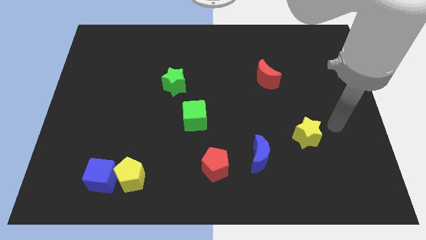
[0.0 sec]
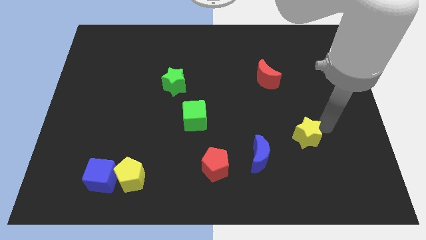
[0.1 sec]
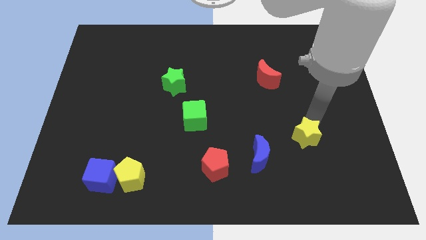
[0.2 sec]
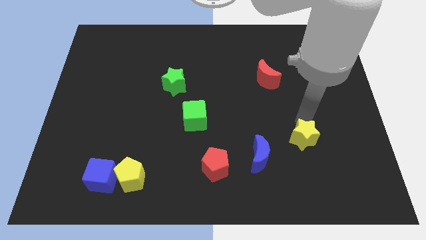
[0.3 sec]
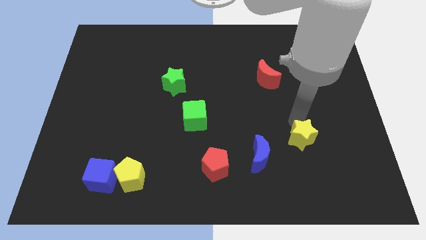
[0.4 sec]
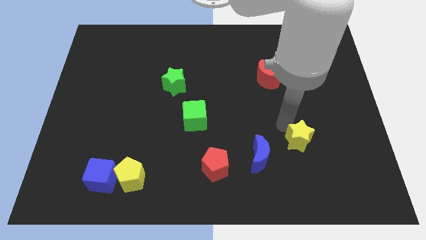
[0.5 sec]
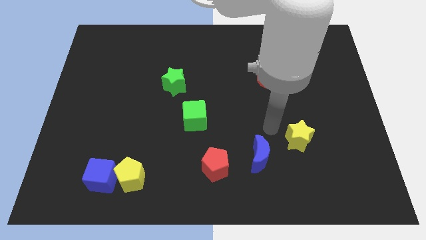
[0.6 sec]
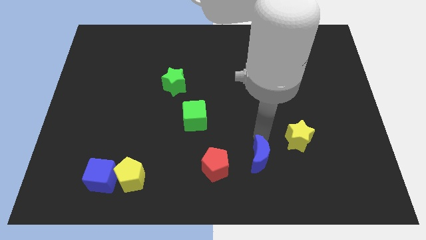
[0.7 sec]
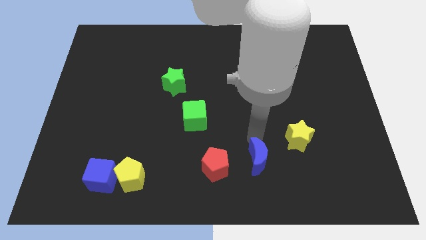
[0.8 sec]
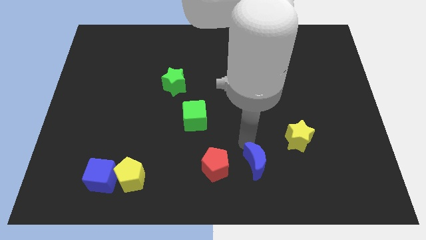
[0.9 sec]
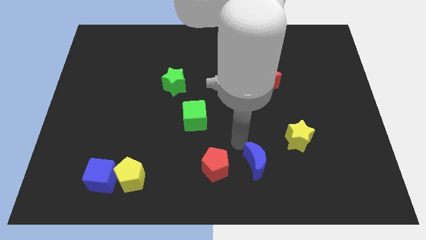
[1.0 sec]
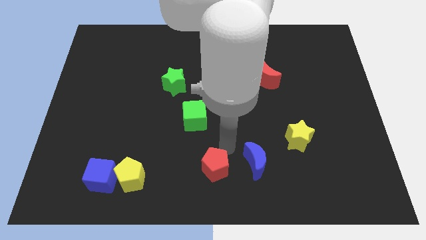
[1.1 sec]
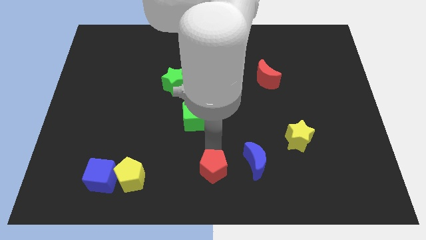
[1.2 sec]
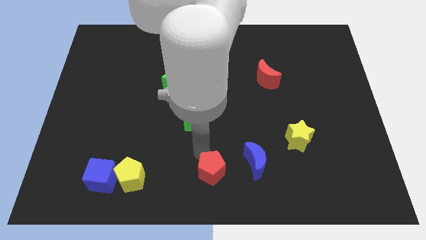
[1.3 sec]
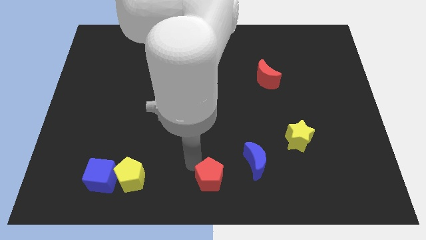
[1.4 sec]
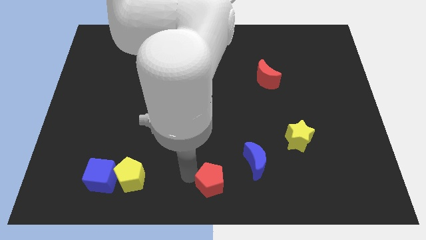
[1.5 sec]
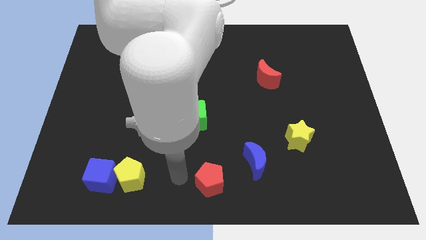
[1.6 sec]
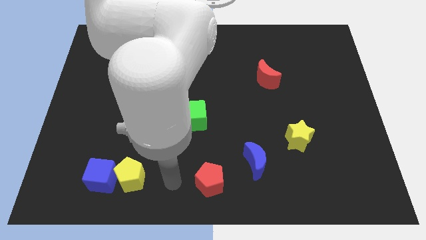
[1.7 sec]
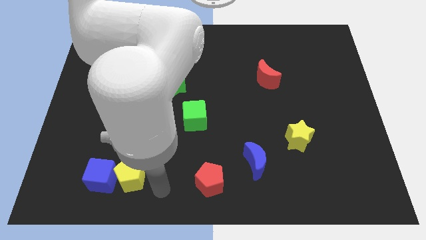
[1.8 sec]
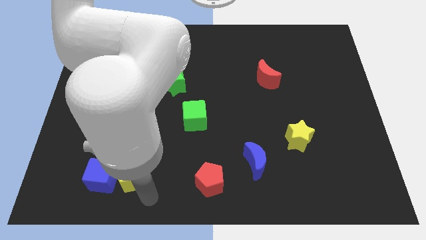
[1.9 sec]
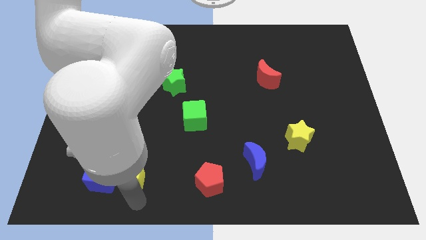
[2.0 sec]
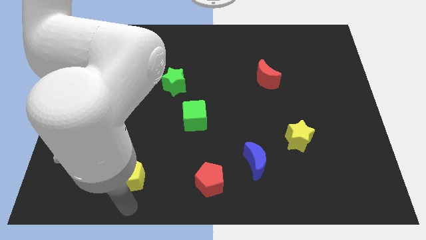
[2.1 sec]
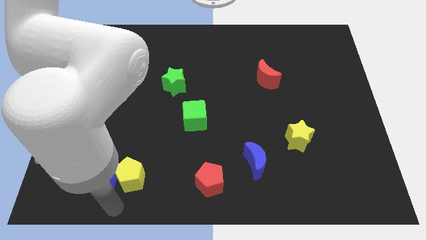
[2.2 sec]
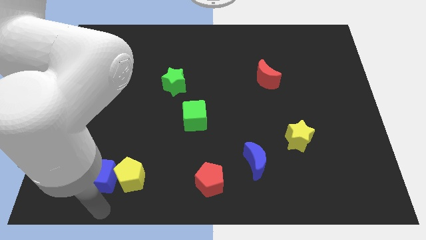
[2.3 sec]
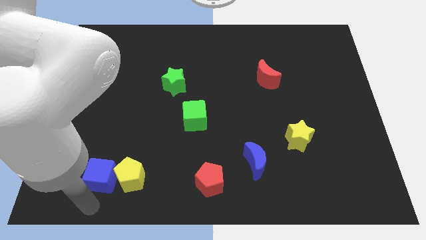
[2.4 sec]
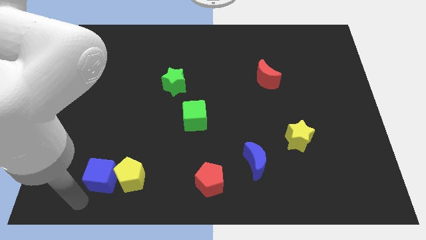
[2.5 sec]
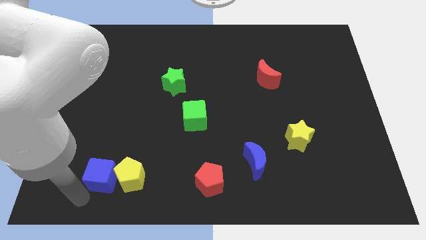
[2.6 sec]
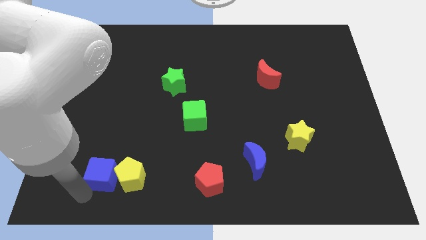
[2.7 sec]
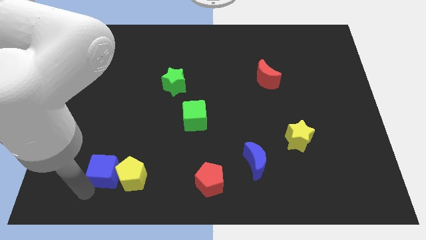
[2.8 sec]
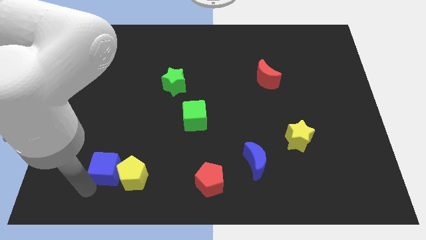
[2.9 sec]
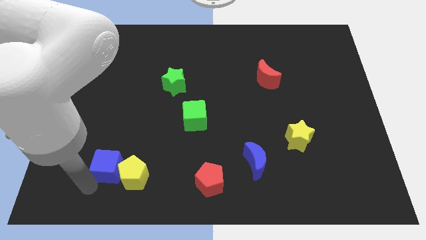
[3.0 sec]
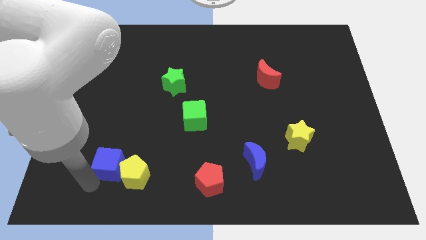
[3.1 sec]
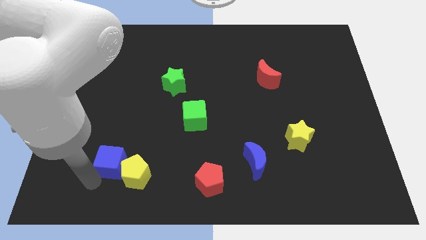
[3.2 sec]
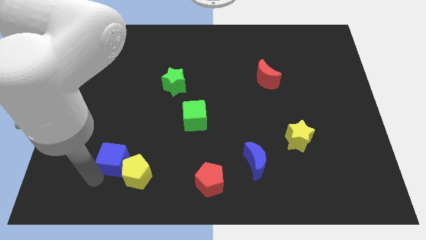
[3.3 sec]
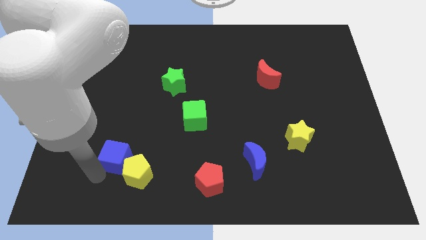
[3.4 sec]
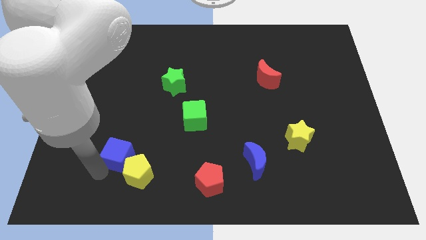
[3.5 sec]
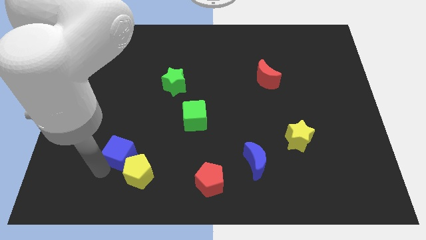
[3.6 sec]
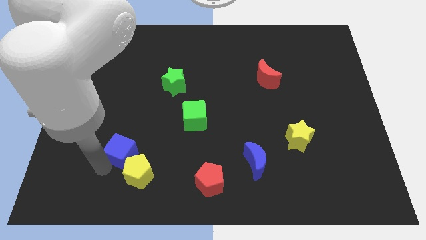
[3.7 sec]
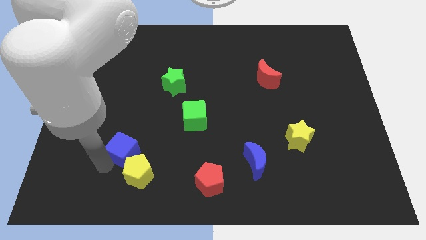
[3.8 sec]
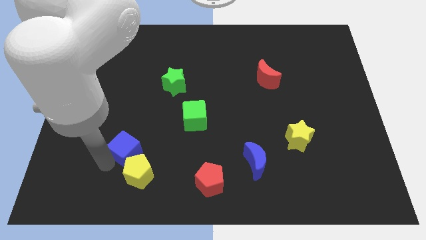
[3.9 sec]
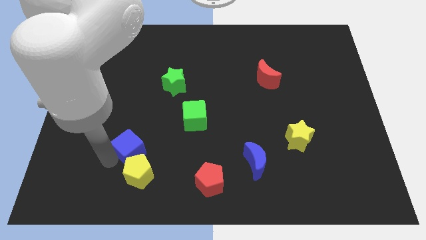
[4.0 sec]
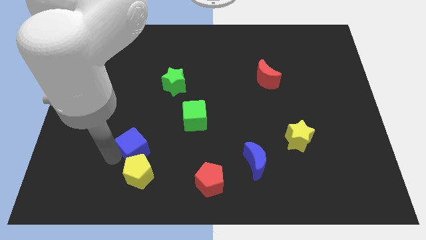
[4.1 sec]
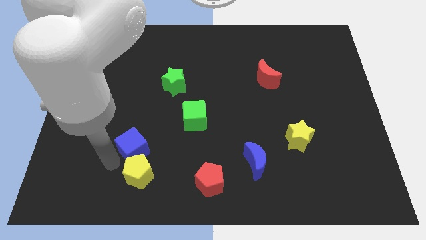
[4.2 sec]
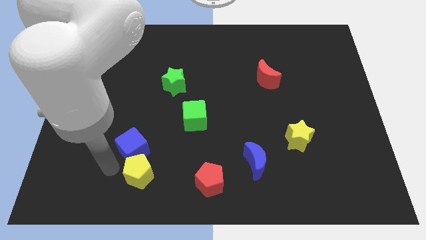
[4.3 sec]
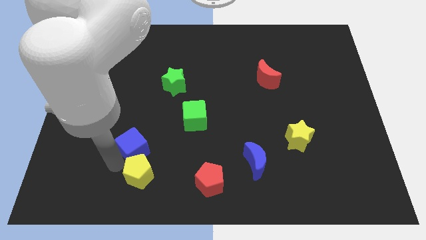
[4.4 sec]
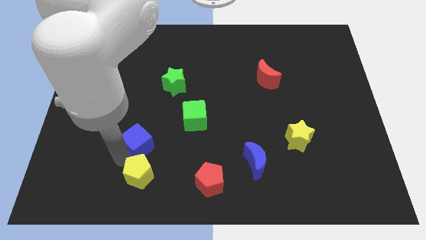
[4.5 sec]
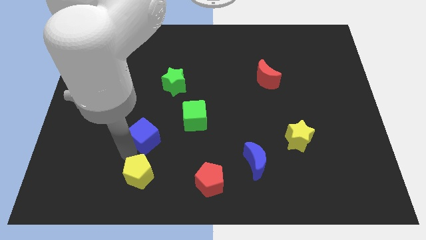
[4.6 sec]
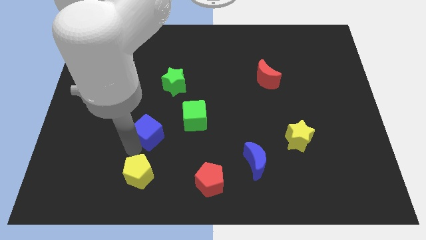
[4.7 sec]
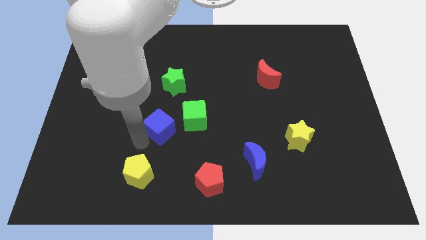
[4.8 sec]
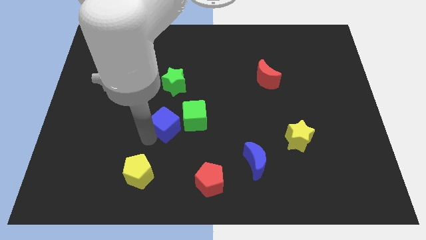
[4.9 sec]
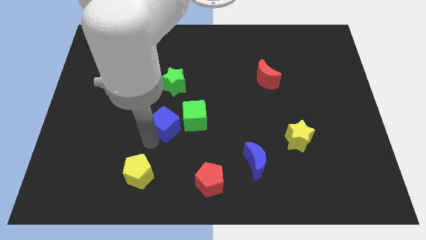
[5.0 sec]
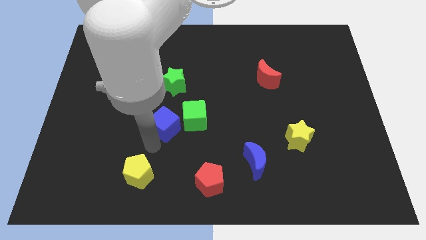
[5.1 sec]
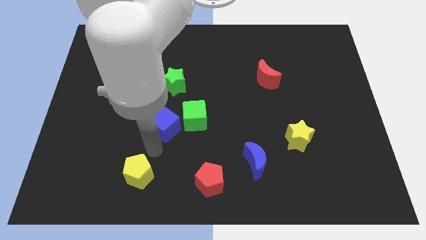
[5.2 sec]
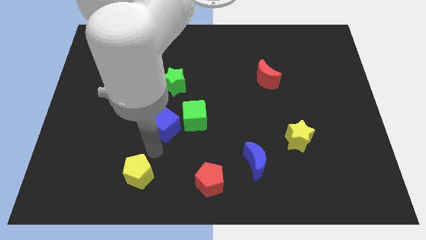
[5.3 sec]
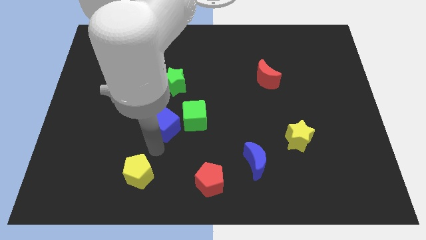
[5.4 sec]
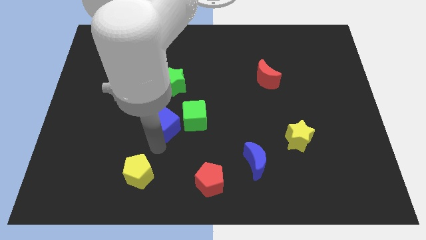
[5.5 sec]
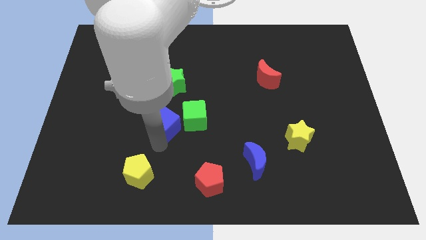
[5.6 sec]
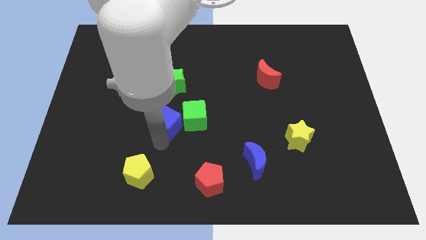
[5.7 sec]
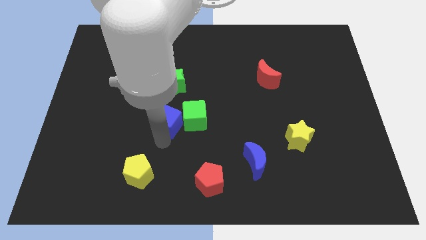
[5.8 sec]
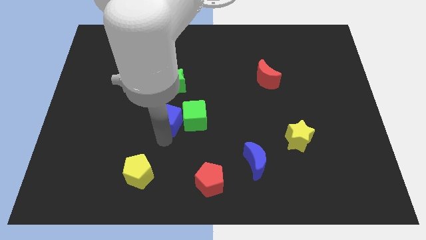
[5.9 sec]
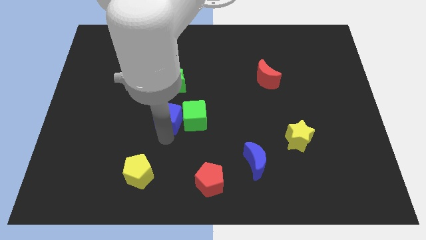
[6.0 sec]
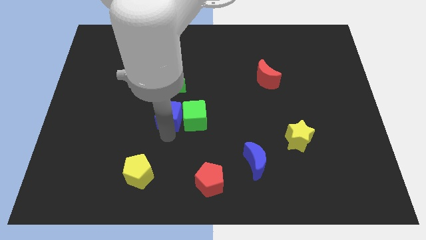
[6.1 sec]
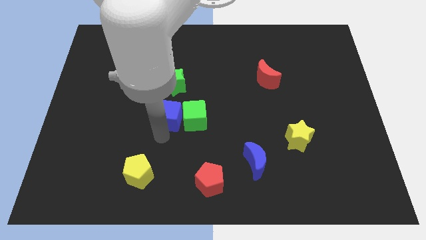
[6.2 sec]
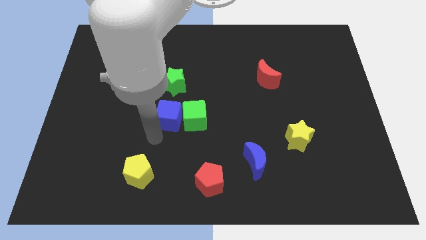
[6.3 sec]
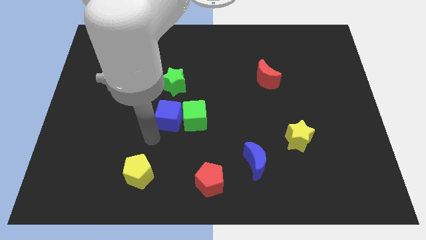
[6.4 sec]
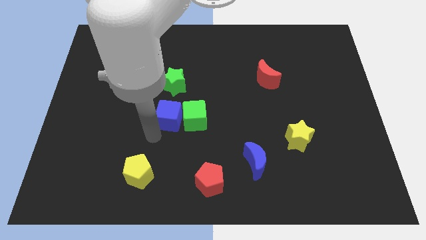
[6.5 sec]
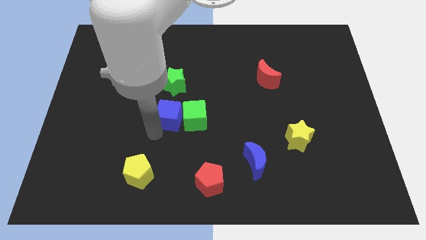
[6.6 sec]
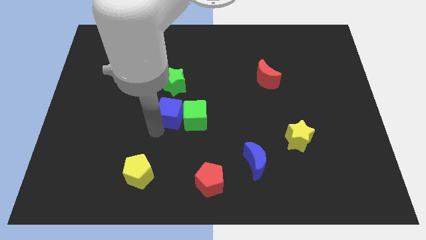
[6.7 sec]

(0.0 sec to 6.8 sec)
slide the blue cube upwards and to the right diagonally

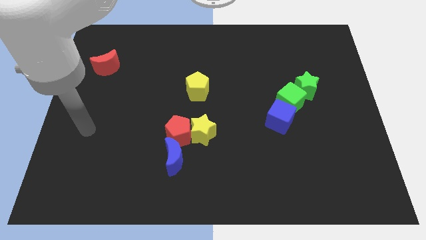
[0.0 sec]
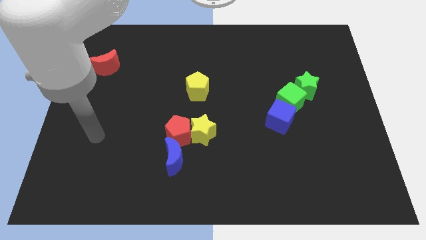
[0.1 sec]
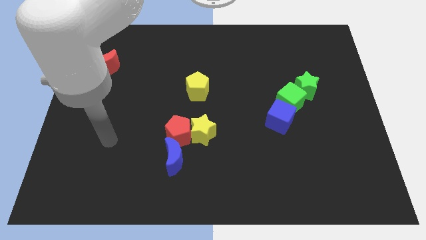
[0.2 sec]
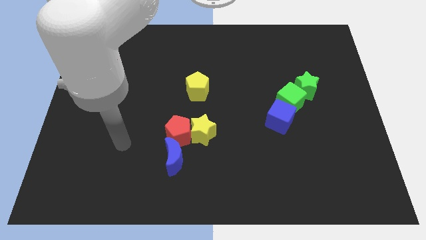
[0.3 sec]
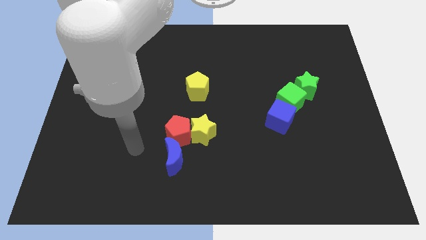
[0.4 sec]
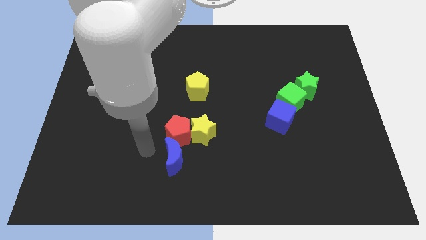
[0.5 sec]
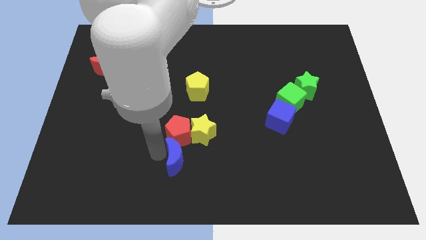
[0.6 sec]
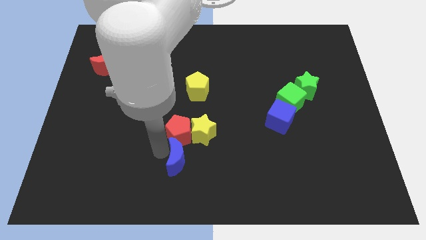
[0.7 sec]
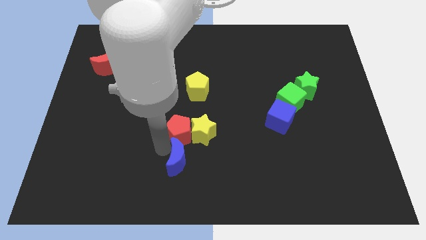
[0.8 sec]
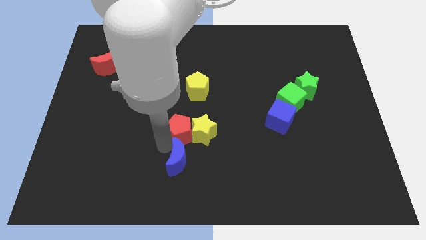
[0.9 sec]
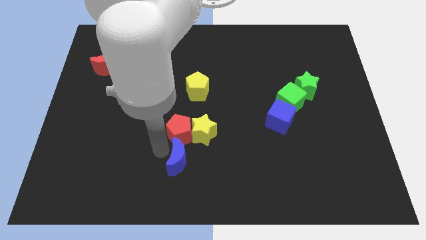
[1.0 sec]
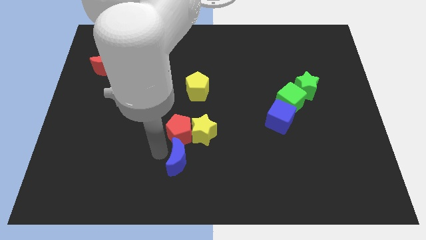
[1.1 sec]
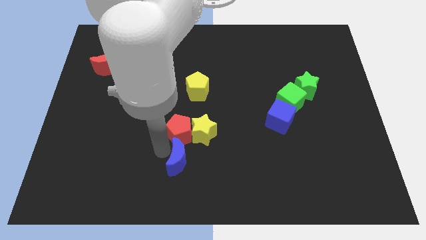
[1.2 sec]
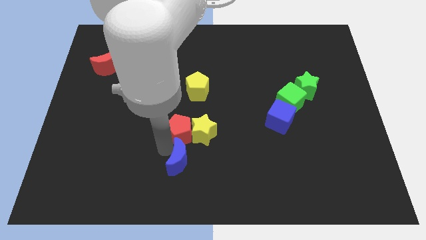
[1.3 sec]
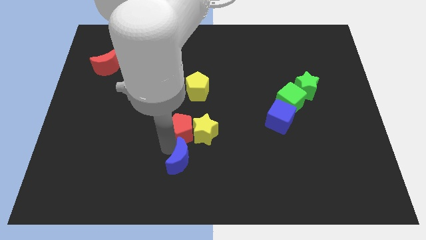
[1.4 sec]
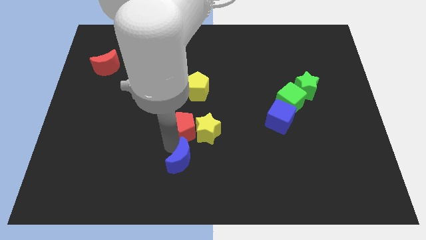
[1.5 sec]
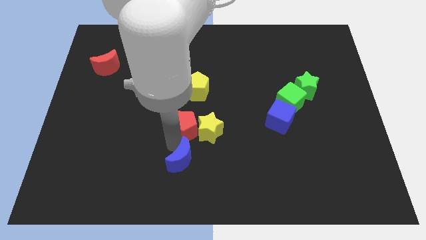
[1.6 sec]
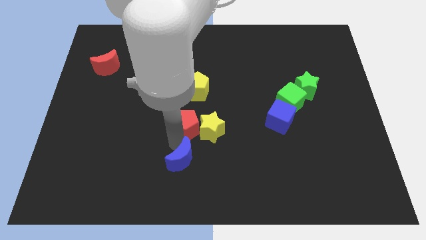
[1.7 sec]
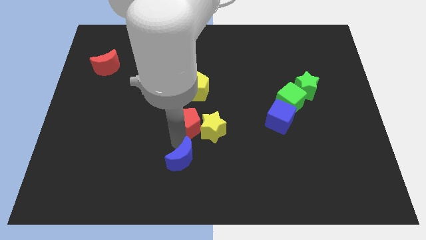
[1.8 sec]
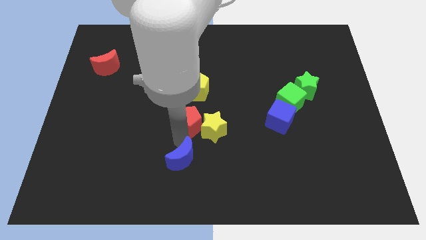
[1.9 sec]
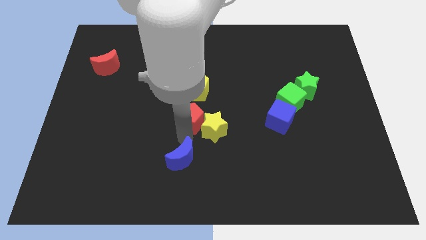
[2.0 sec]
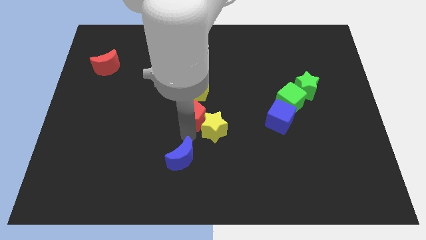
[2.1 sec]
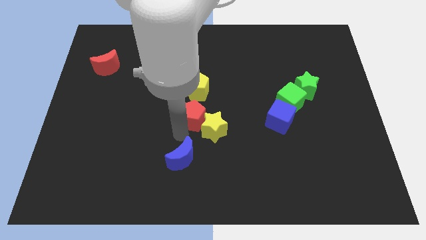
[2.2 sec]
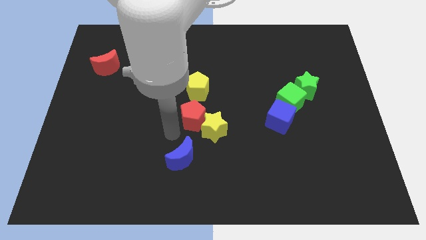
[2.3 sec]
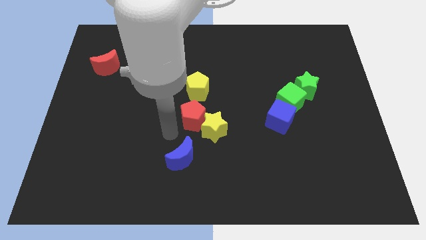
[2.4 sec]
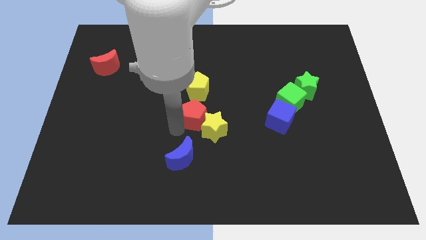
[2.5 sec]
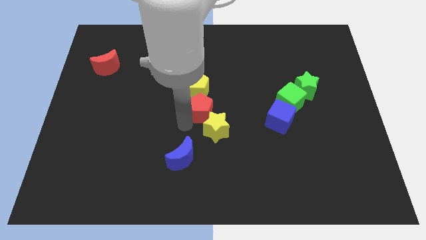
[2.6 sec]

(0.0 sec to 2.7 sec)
slide the red pentagon a little bit up and to the right
